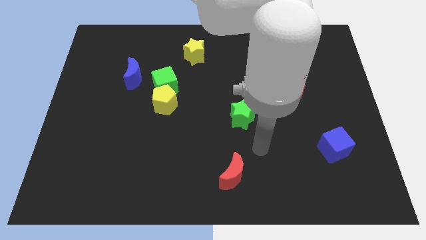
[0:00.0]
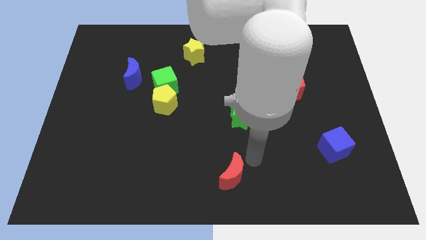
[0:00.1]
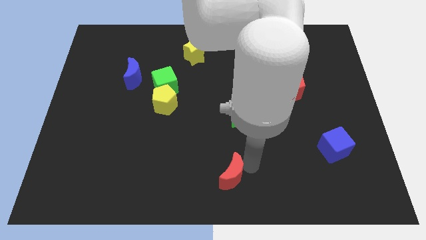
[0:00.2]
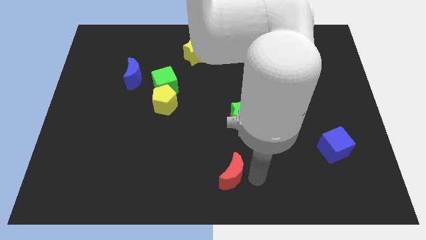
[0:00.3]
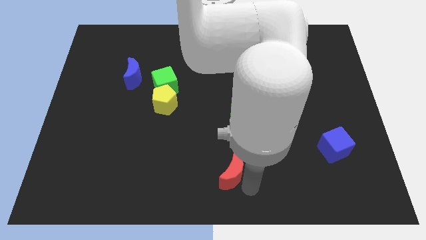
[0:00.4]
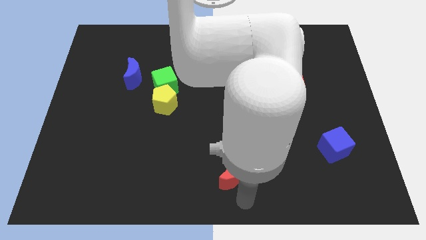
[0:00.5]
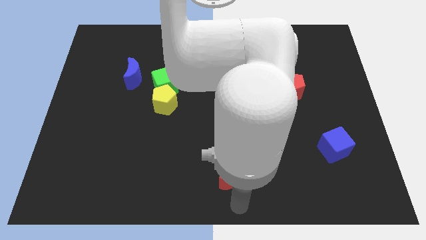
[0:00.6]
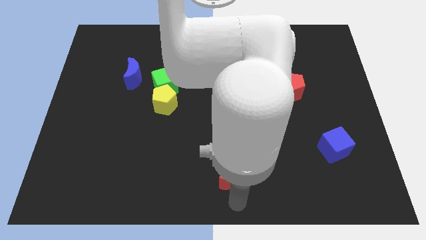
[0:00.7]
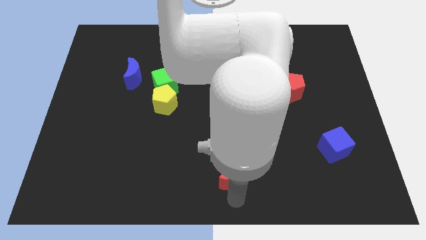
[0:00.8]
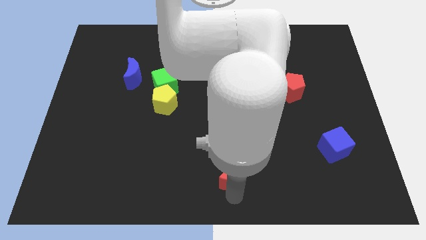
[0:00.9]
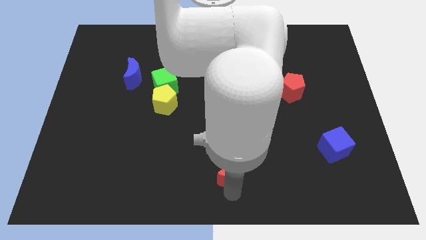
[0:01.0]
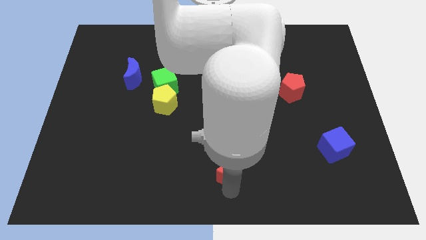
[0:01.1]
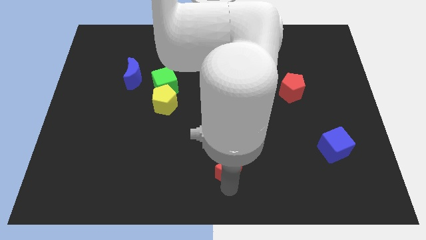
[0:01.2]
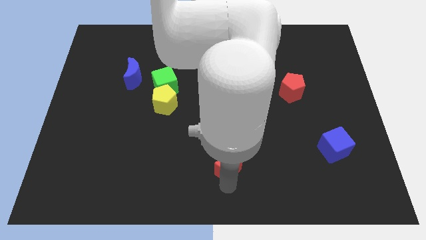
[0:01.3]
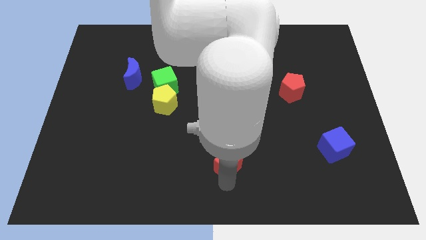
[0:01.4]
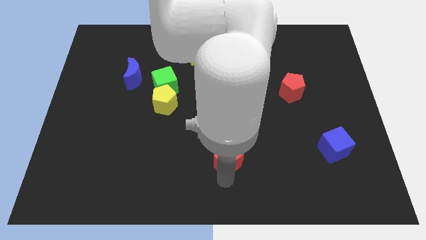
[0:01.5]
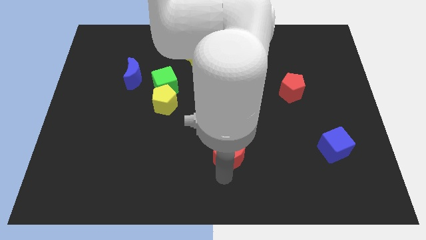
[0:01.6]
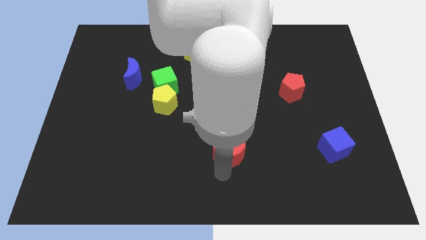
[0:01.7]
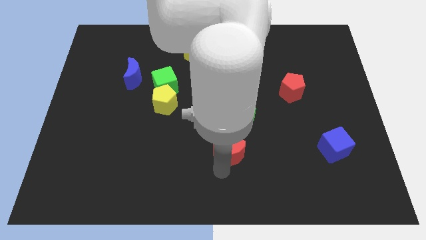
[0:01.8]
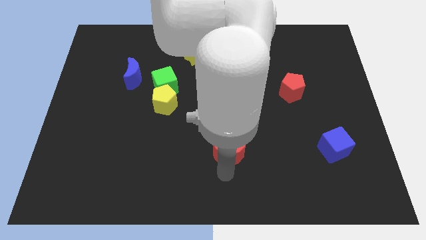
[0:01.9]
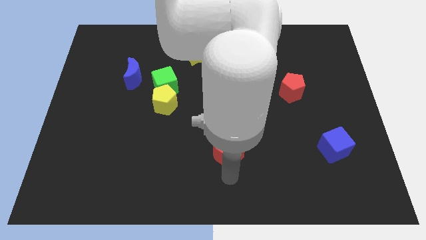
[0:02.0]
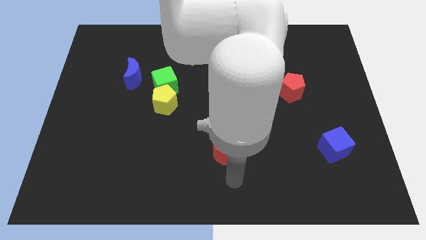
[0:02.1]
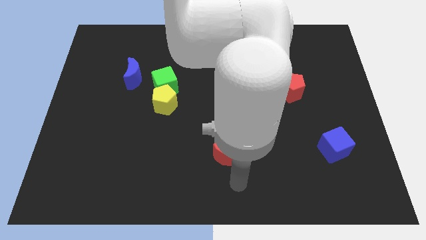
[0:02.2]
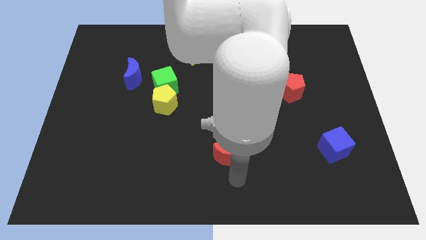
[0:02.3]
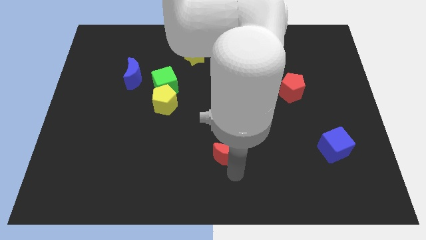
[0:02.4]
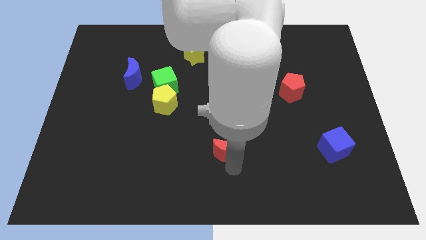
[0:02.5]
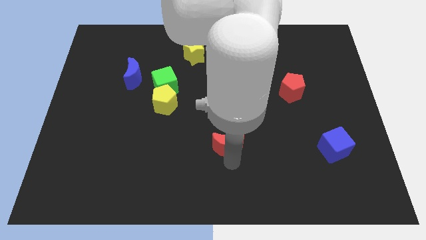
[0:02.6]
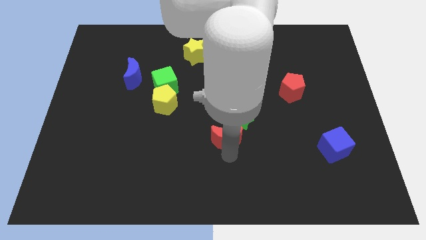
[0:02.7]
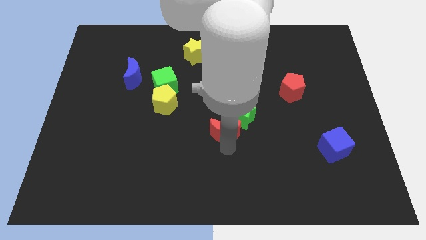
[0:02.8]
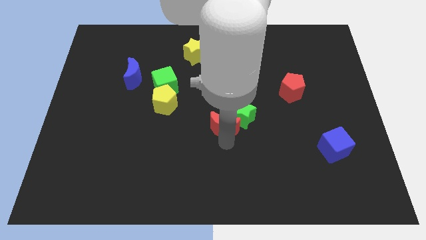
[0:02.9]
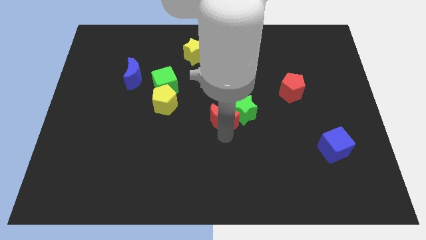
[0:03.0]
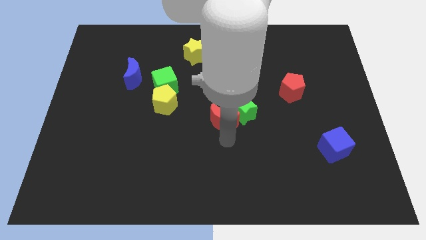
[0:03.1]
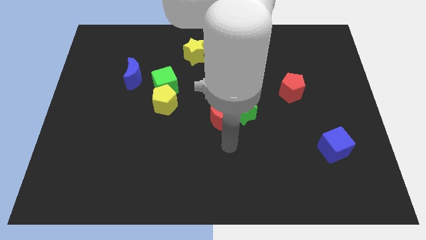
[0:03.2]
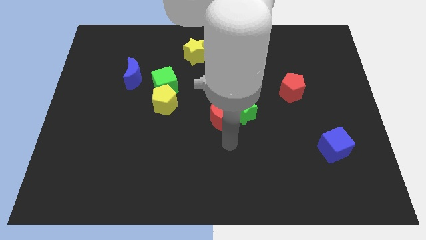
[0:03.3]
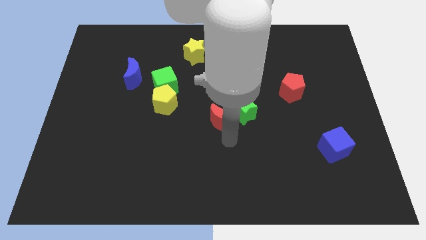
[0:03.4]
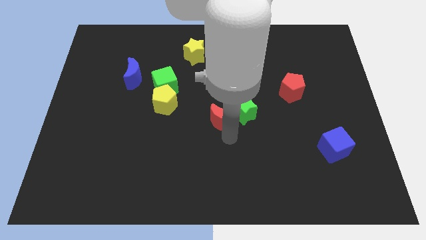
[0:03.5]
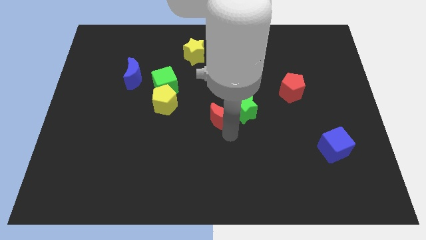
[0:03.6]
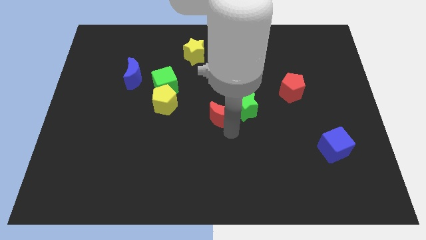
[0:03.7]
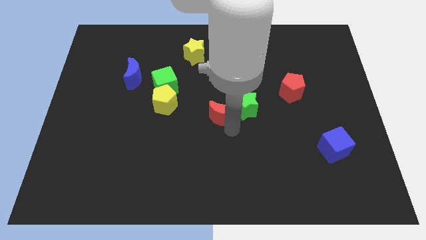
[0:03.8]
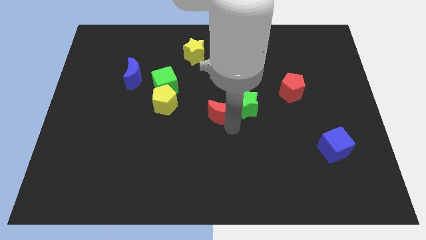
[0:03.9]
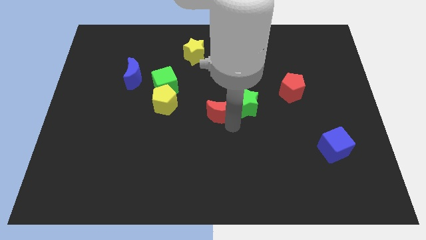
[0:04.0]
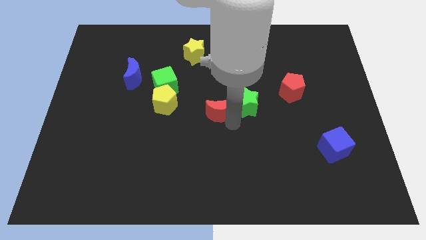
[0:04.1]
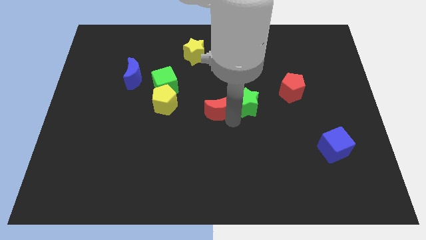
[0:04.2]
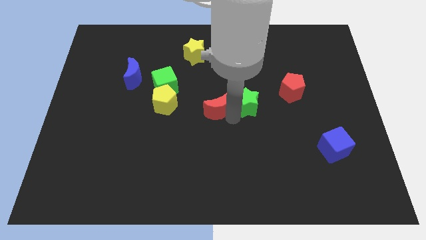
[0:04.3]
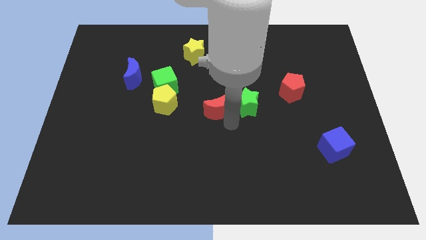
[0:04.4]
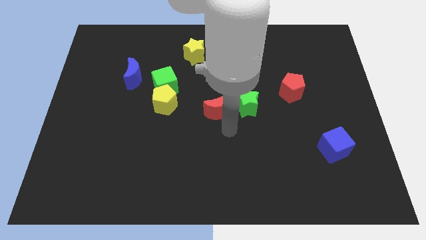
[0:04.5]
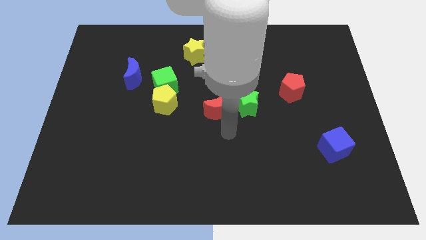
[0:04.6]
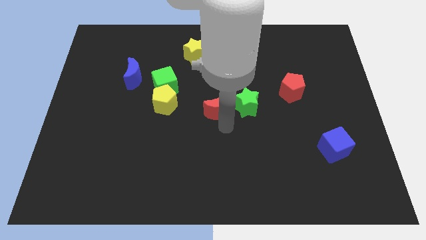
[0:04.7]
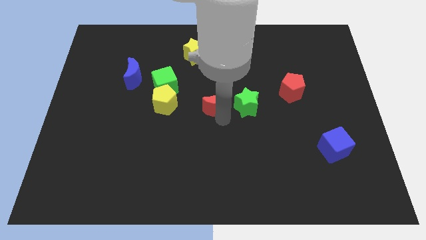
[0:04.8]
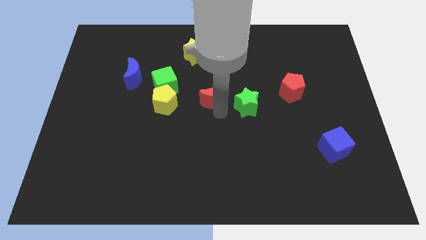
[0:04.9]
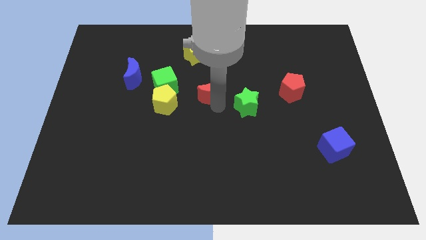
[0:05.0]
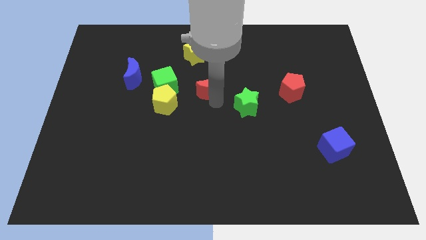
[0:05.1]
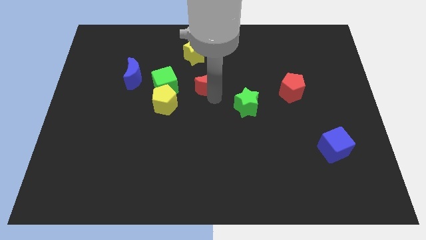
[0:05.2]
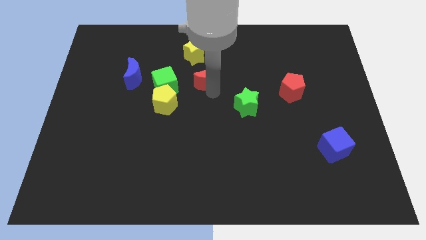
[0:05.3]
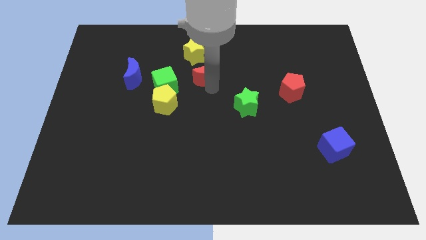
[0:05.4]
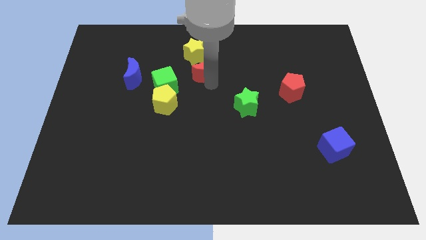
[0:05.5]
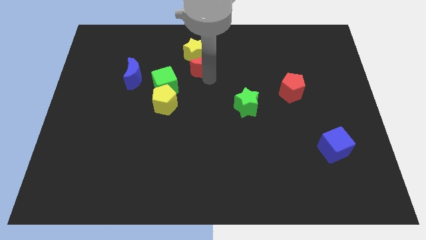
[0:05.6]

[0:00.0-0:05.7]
push the red moon close to the yellow star

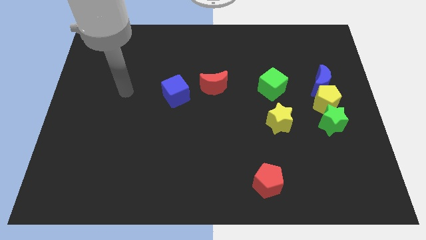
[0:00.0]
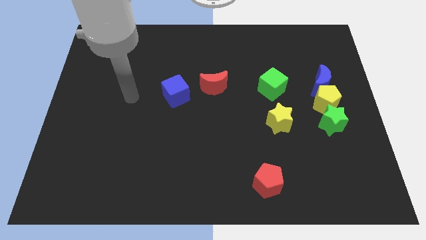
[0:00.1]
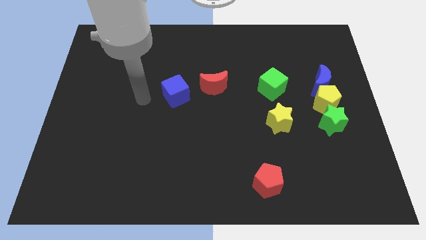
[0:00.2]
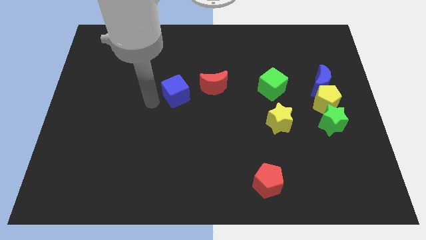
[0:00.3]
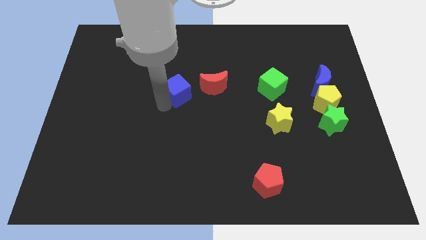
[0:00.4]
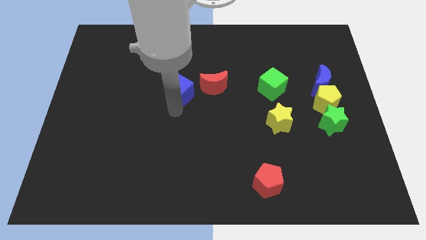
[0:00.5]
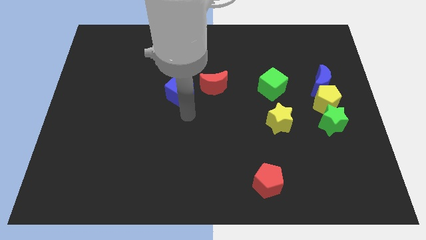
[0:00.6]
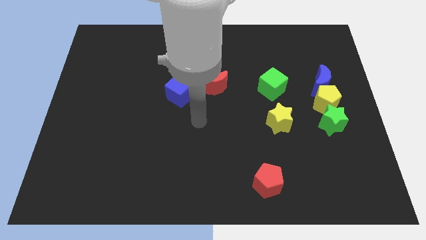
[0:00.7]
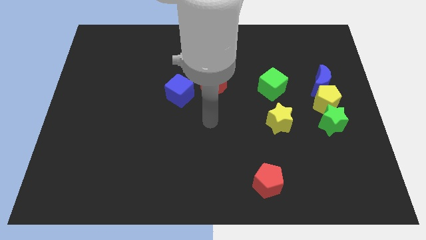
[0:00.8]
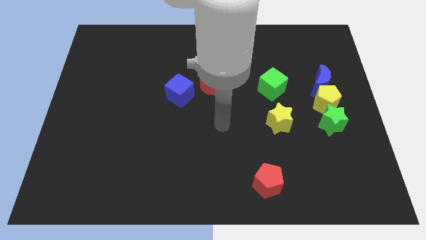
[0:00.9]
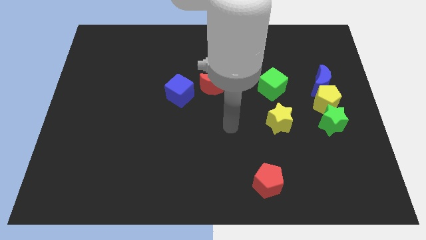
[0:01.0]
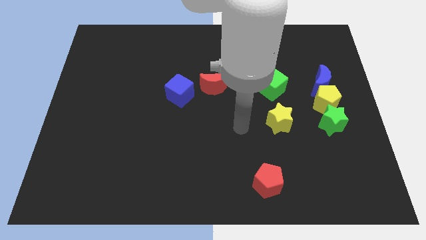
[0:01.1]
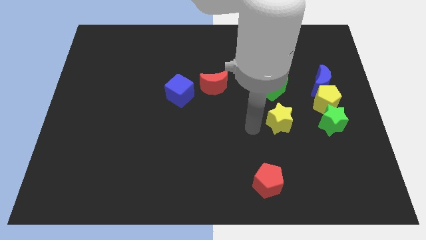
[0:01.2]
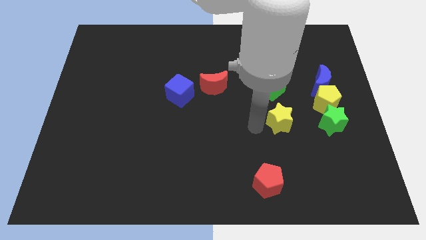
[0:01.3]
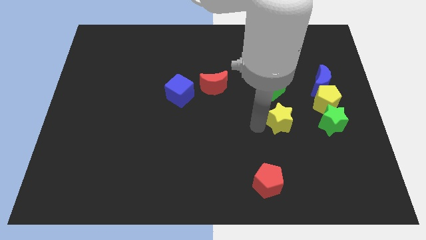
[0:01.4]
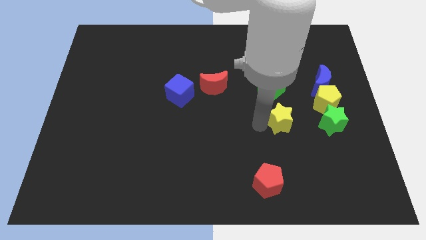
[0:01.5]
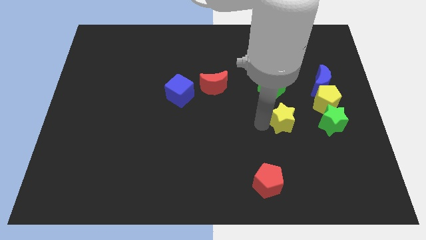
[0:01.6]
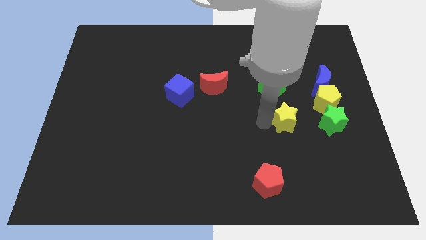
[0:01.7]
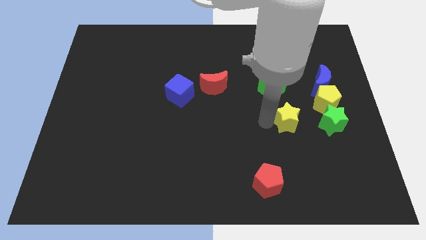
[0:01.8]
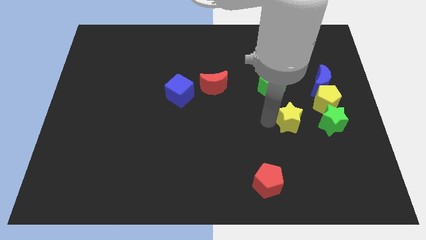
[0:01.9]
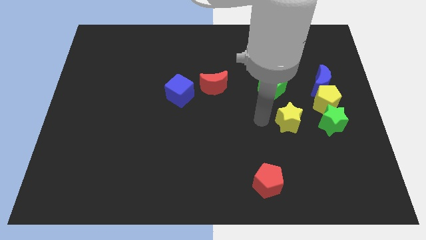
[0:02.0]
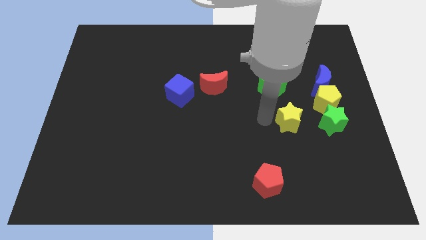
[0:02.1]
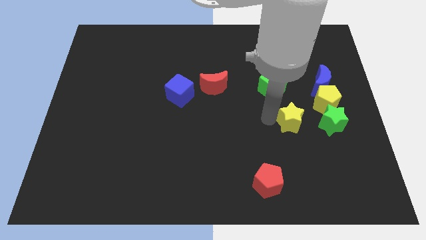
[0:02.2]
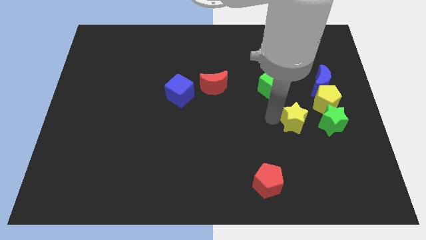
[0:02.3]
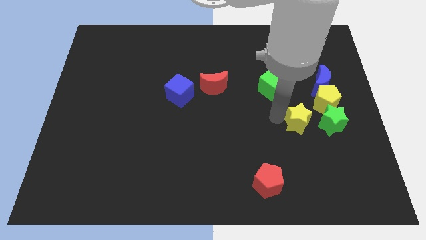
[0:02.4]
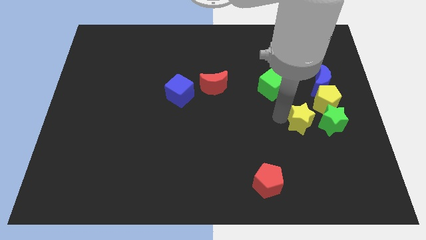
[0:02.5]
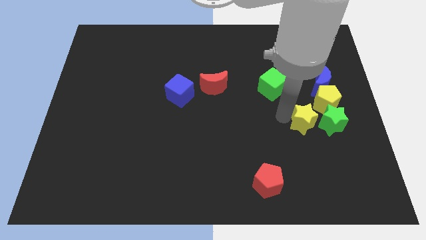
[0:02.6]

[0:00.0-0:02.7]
move the yellow star towards the green star
